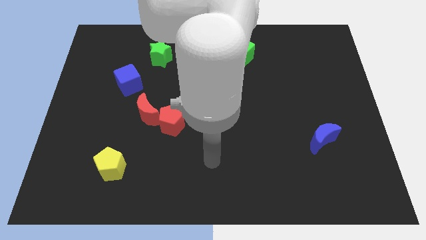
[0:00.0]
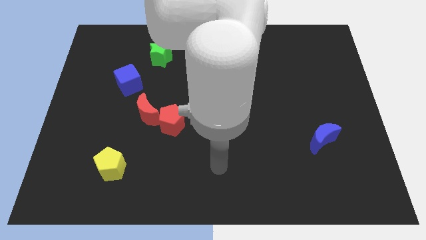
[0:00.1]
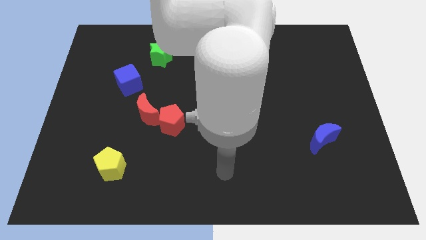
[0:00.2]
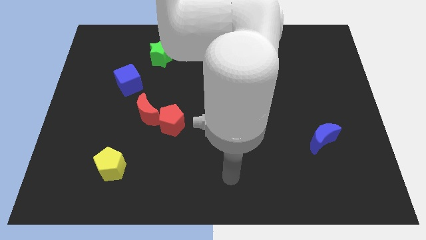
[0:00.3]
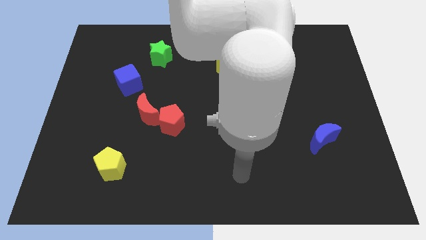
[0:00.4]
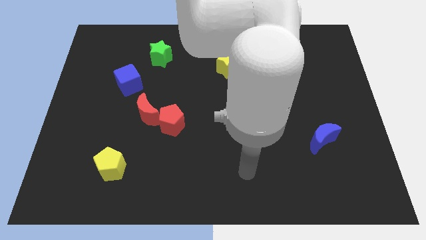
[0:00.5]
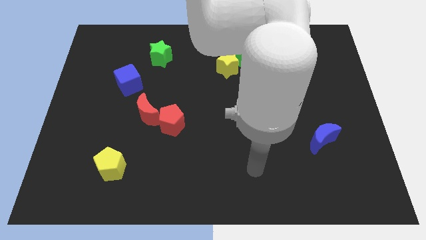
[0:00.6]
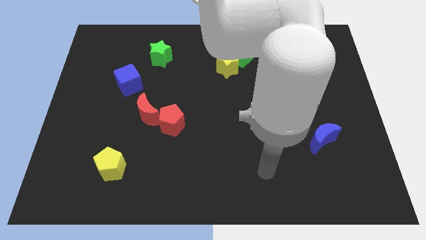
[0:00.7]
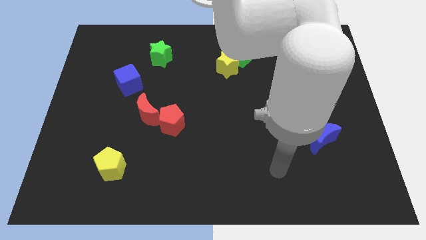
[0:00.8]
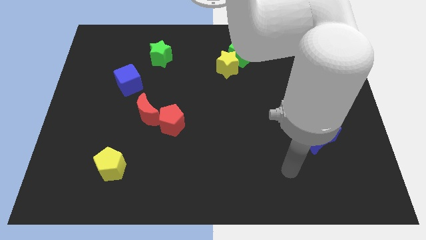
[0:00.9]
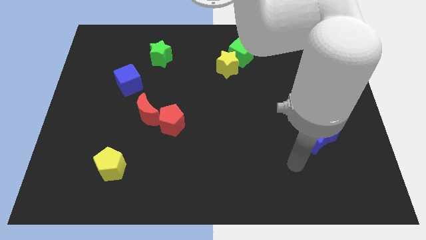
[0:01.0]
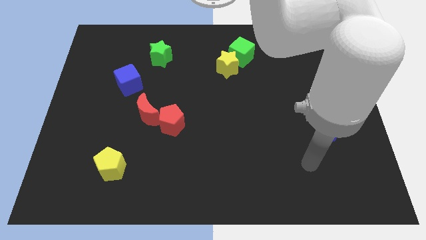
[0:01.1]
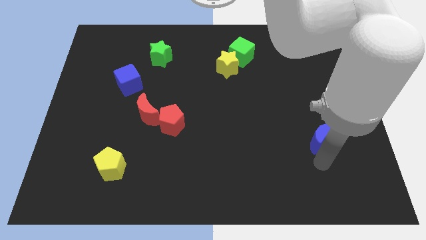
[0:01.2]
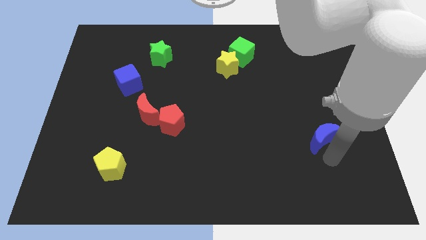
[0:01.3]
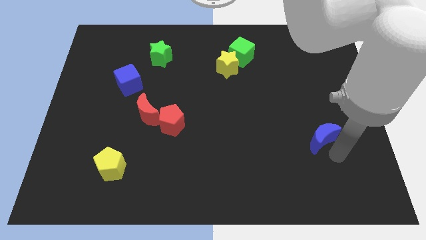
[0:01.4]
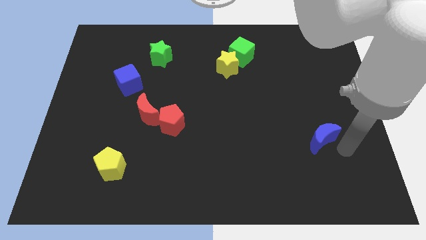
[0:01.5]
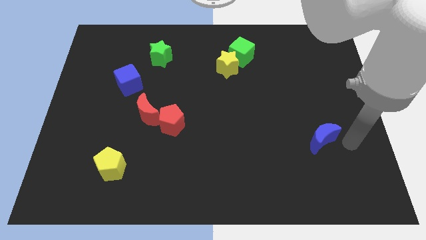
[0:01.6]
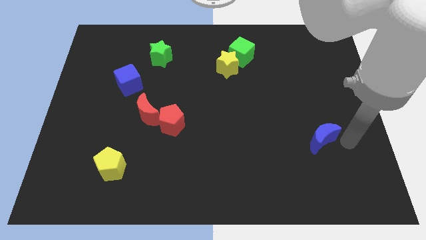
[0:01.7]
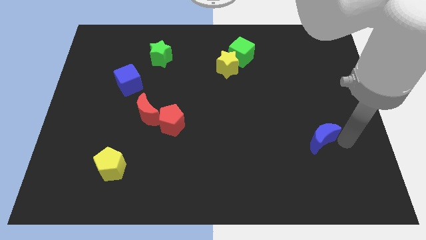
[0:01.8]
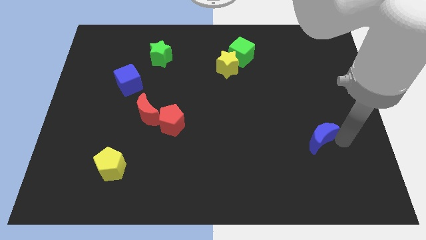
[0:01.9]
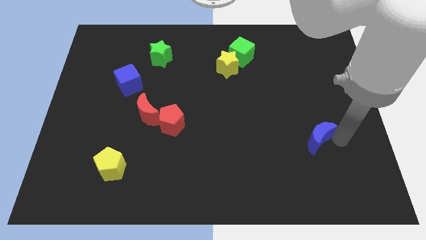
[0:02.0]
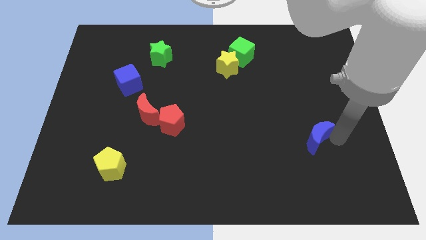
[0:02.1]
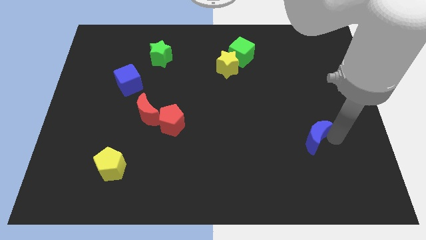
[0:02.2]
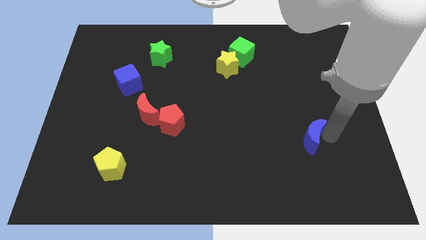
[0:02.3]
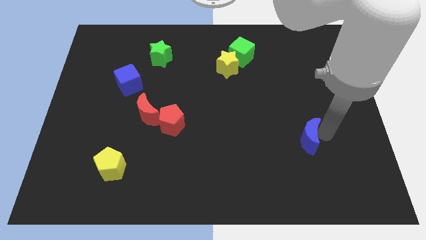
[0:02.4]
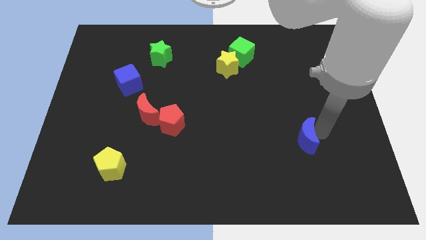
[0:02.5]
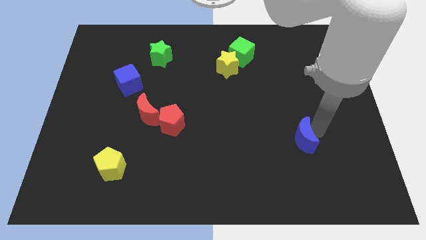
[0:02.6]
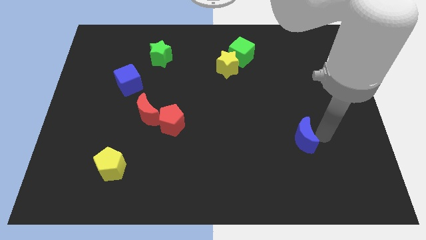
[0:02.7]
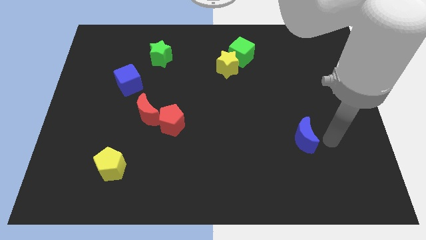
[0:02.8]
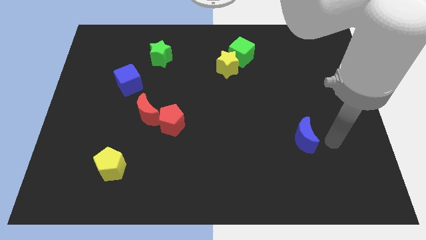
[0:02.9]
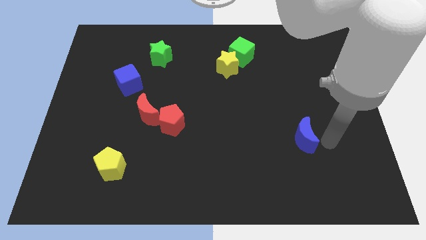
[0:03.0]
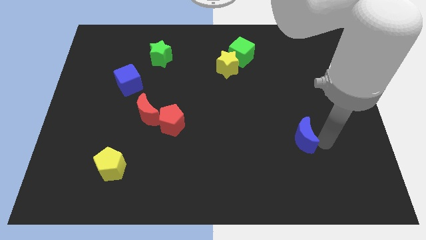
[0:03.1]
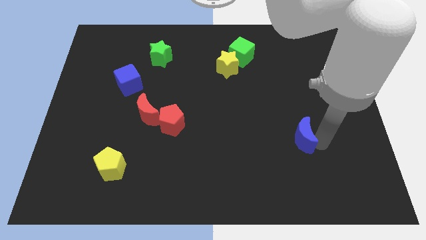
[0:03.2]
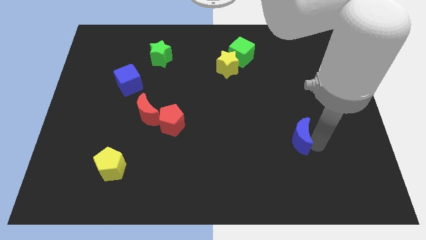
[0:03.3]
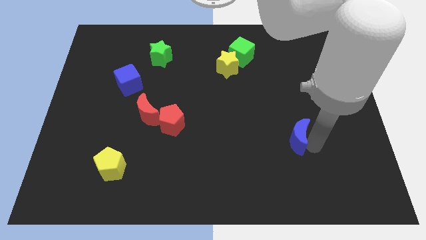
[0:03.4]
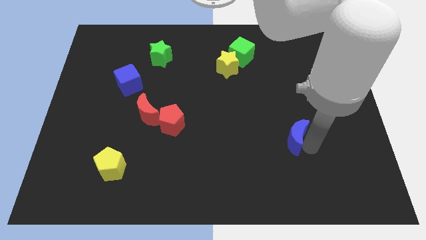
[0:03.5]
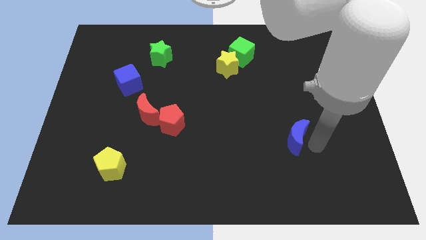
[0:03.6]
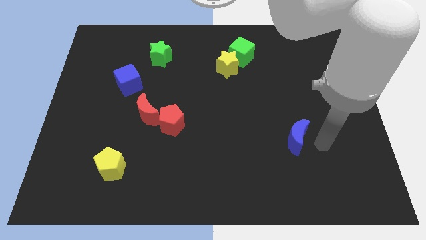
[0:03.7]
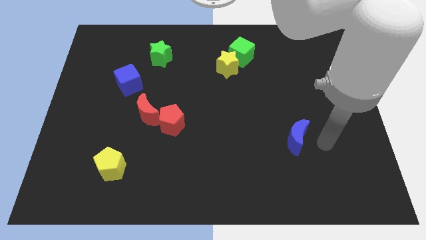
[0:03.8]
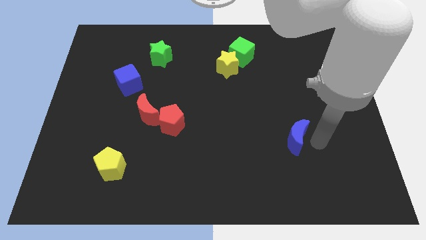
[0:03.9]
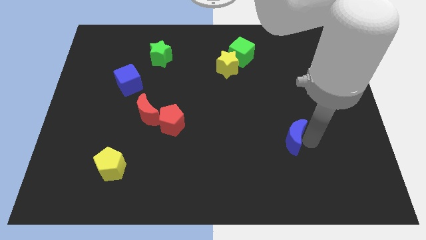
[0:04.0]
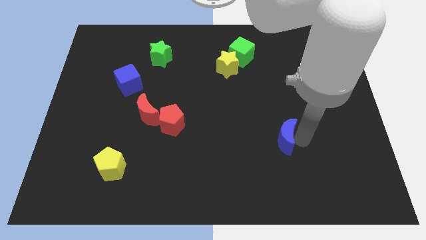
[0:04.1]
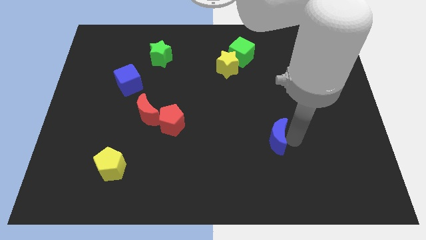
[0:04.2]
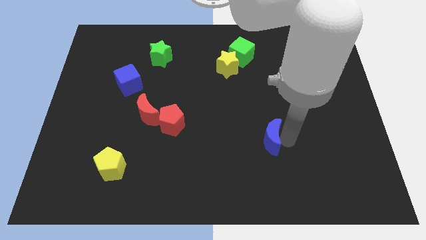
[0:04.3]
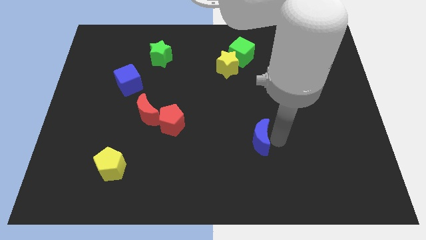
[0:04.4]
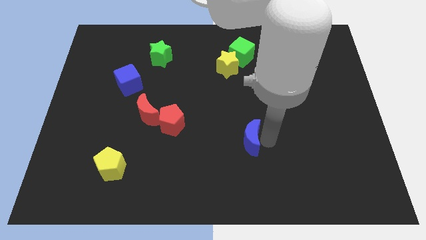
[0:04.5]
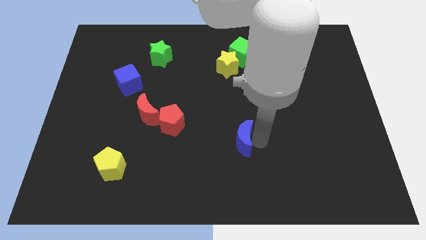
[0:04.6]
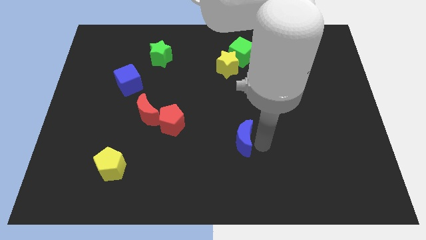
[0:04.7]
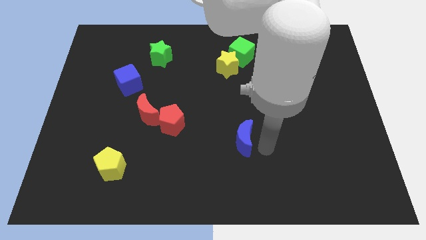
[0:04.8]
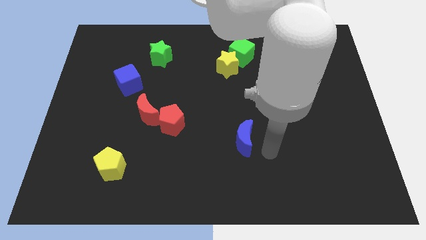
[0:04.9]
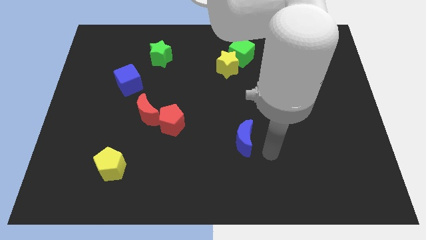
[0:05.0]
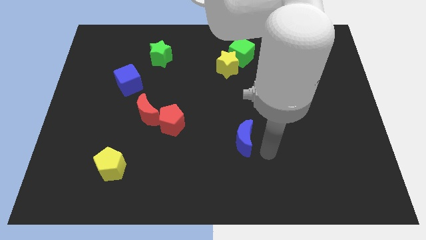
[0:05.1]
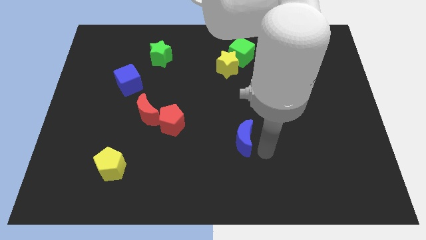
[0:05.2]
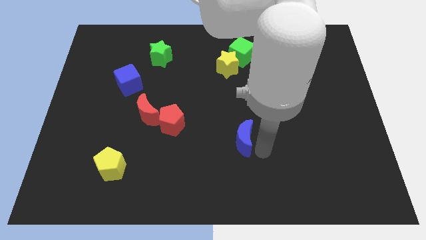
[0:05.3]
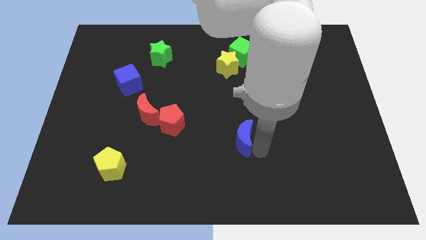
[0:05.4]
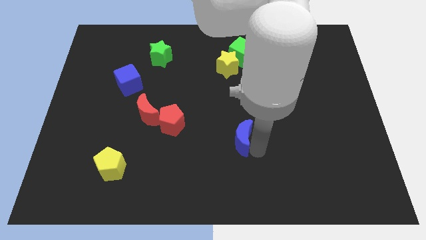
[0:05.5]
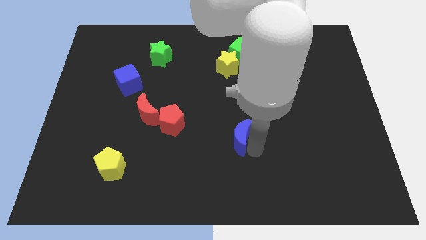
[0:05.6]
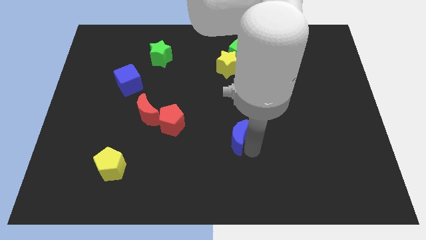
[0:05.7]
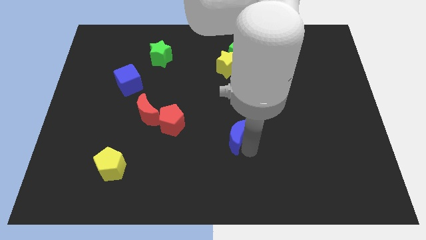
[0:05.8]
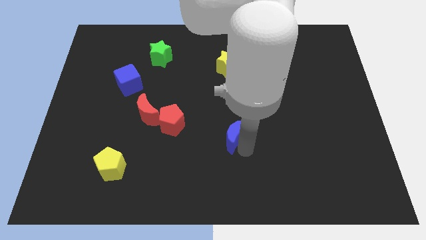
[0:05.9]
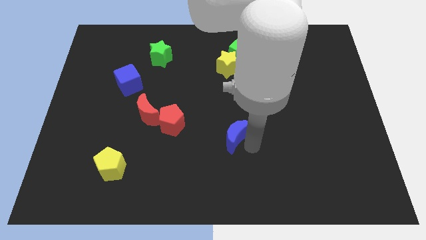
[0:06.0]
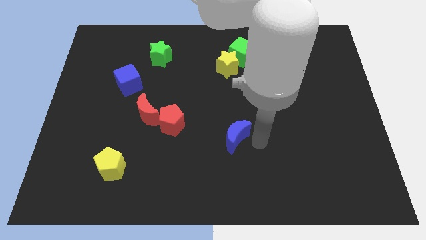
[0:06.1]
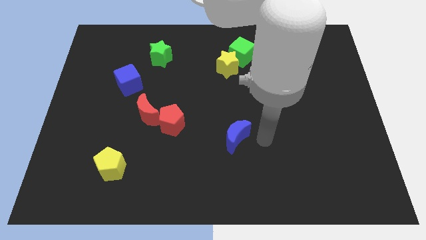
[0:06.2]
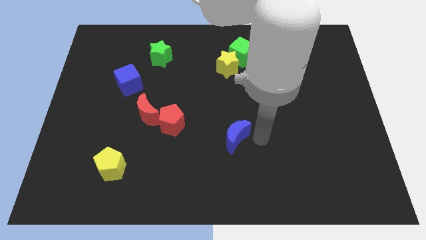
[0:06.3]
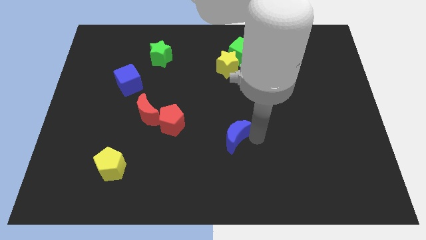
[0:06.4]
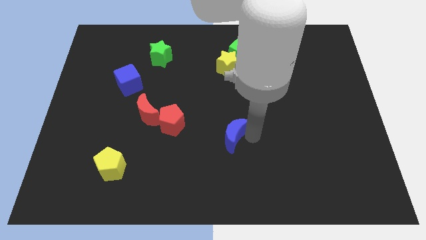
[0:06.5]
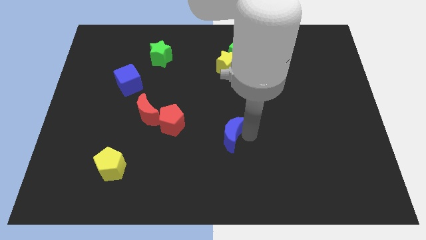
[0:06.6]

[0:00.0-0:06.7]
move the blue moon to the left

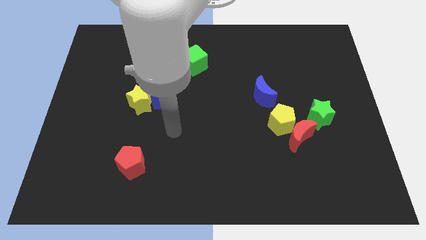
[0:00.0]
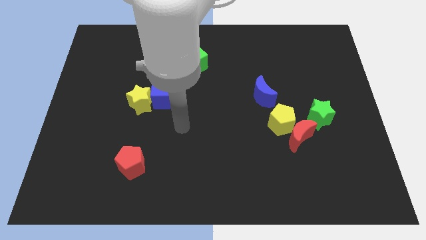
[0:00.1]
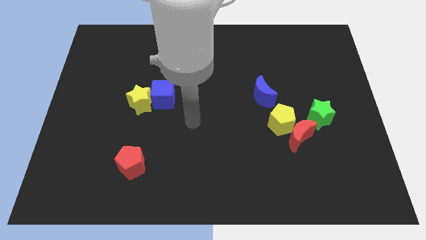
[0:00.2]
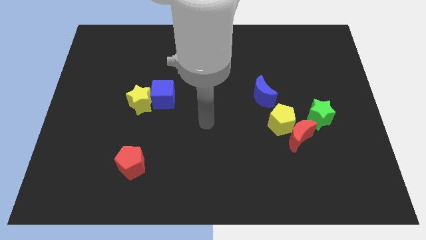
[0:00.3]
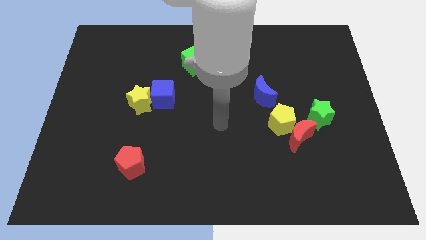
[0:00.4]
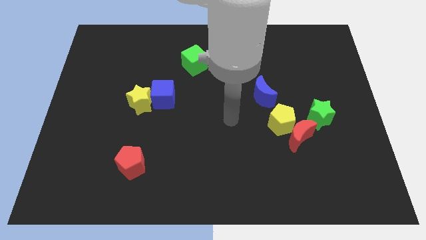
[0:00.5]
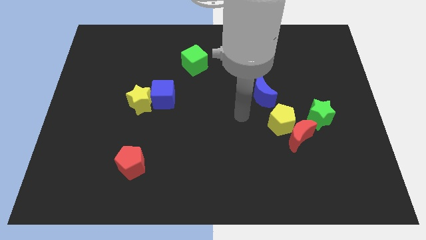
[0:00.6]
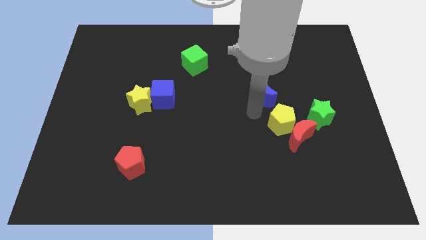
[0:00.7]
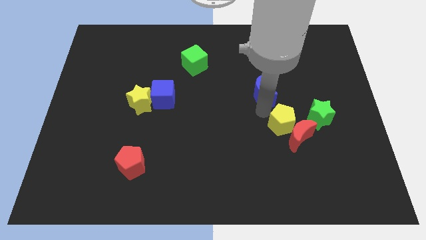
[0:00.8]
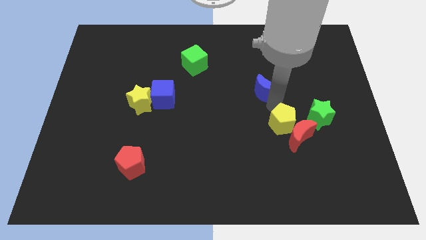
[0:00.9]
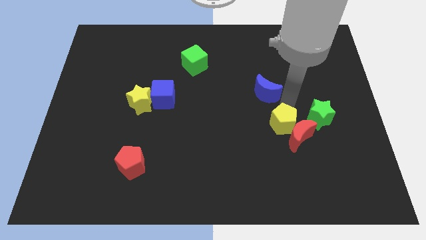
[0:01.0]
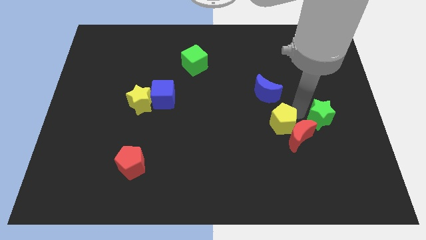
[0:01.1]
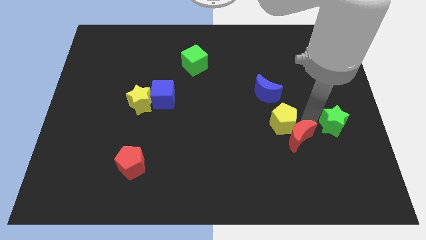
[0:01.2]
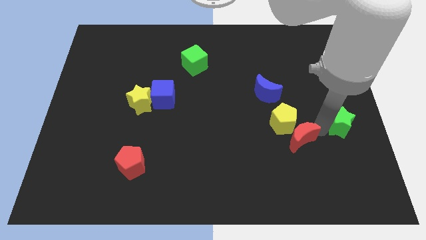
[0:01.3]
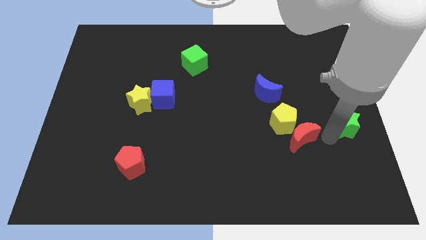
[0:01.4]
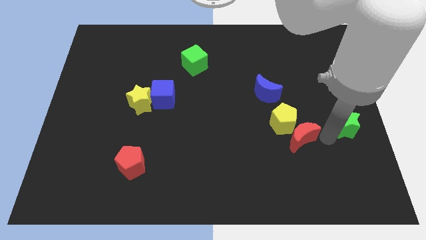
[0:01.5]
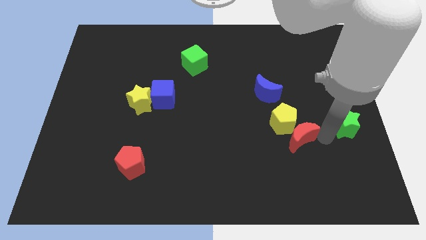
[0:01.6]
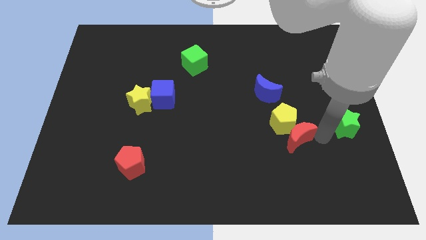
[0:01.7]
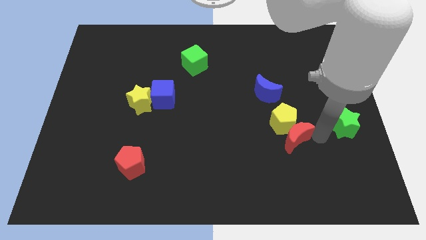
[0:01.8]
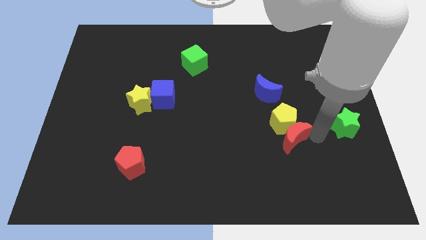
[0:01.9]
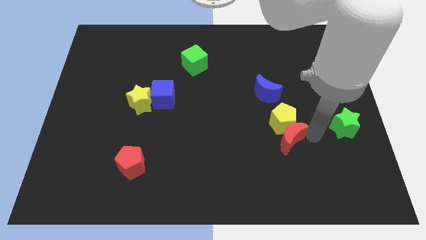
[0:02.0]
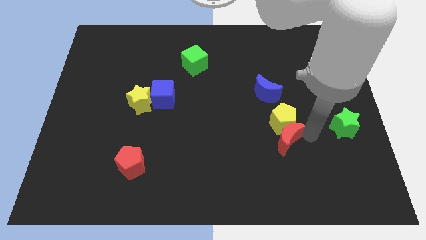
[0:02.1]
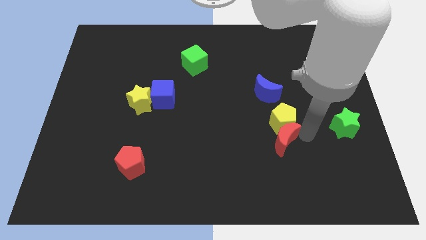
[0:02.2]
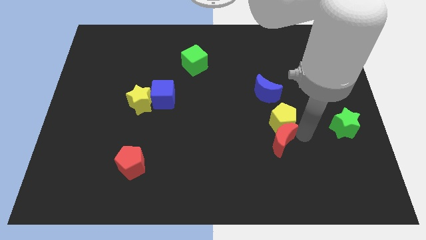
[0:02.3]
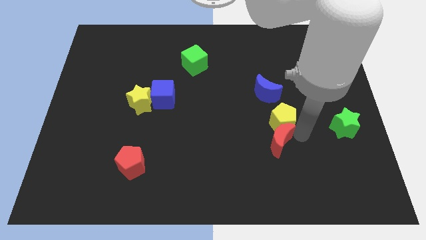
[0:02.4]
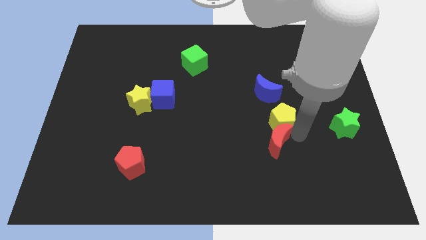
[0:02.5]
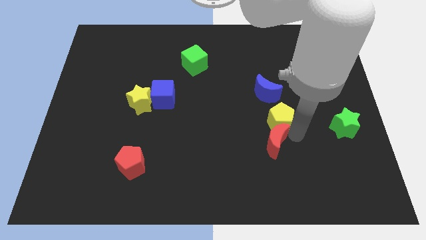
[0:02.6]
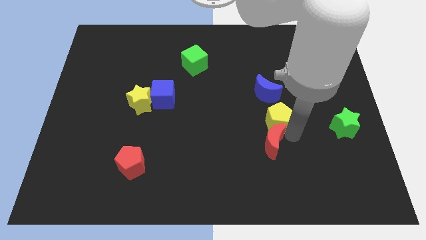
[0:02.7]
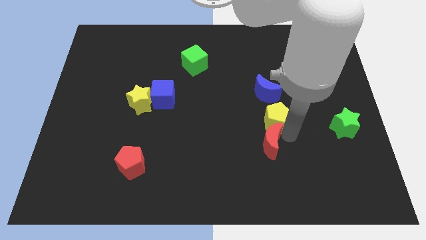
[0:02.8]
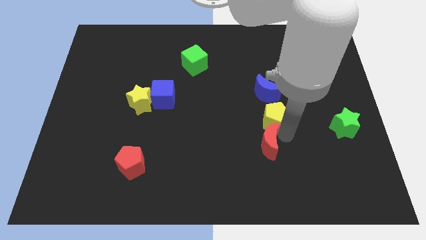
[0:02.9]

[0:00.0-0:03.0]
slide the red moon left a little bit
